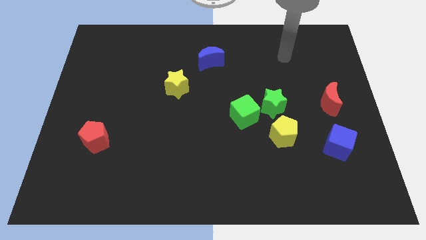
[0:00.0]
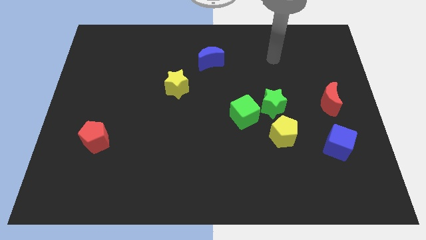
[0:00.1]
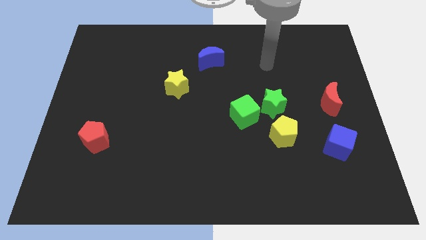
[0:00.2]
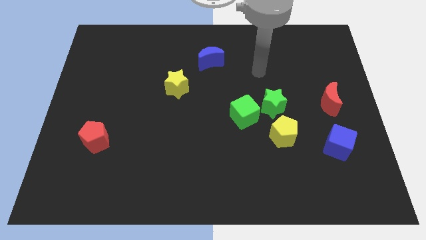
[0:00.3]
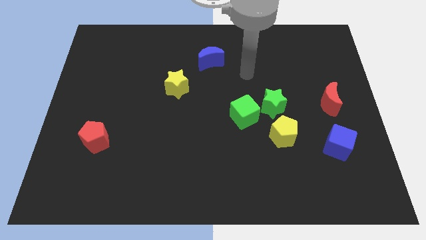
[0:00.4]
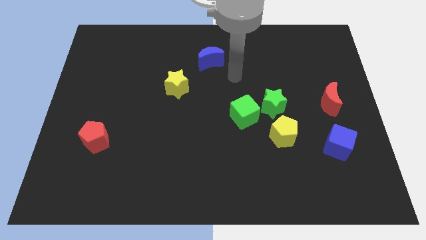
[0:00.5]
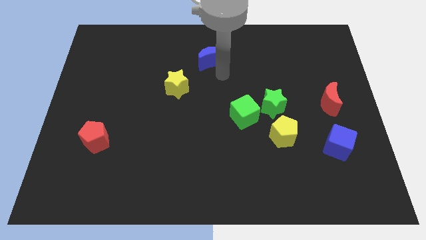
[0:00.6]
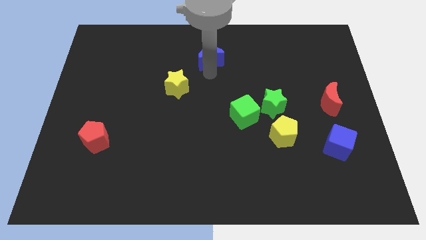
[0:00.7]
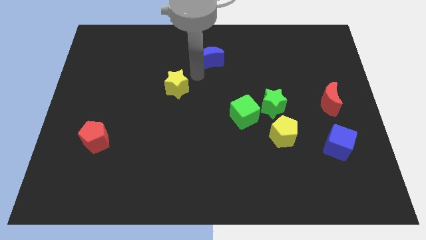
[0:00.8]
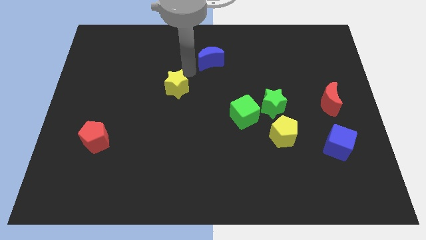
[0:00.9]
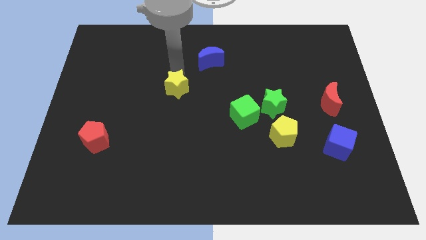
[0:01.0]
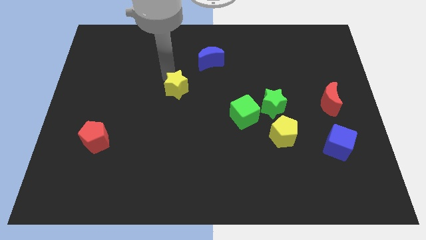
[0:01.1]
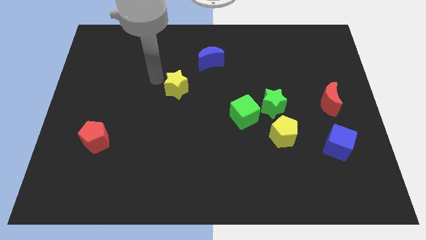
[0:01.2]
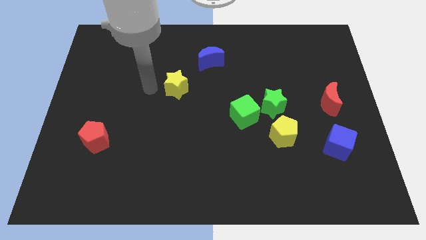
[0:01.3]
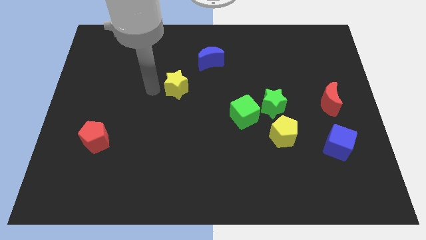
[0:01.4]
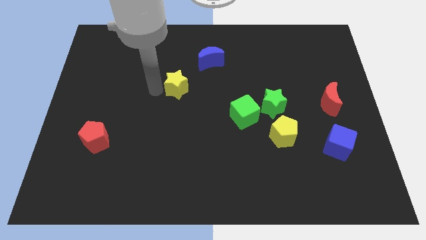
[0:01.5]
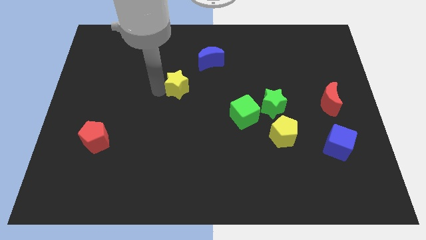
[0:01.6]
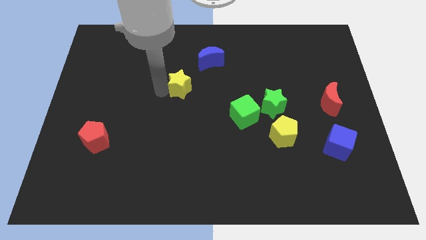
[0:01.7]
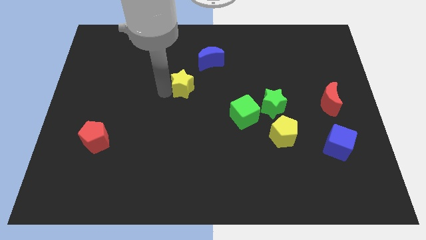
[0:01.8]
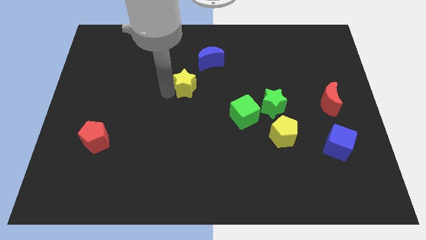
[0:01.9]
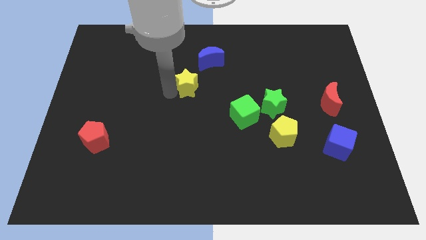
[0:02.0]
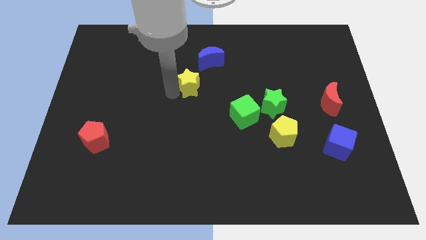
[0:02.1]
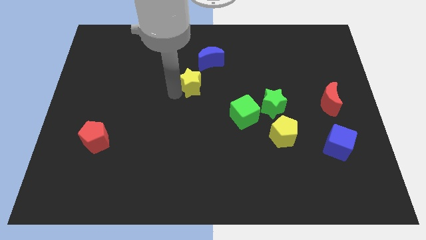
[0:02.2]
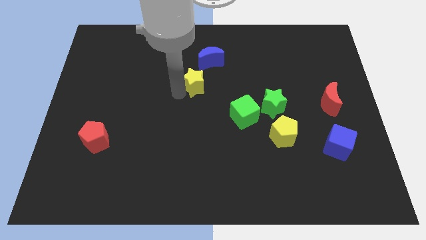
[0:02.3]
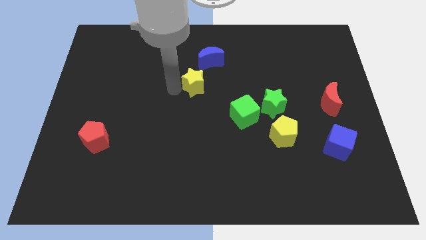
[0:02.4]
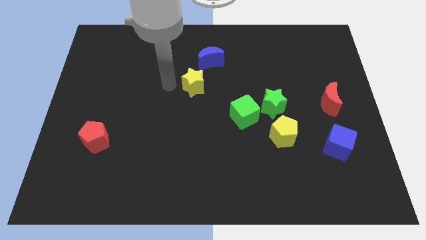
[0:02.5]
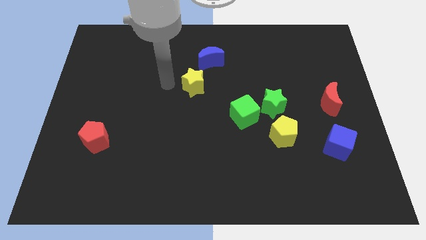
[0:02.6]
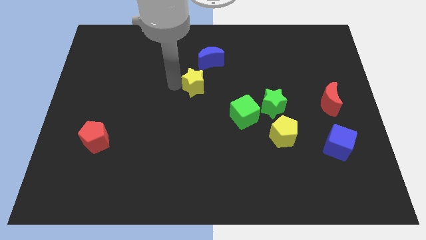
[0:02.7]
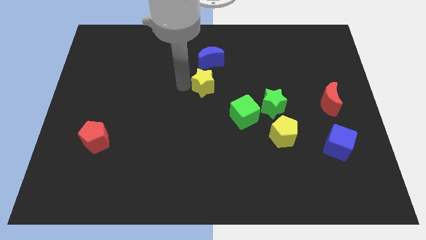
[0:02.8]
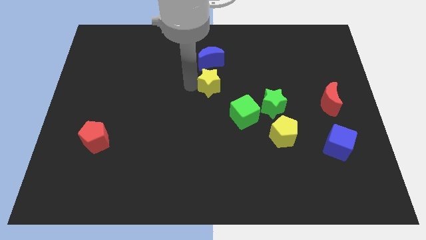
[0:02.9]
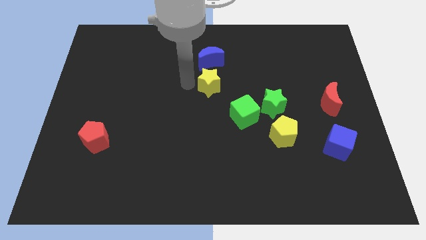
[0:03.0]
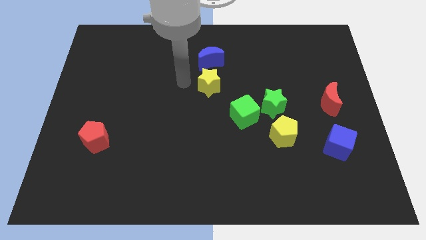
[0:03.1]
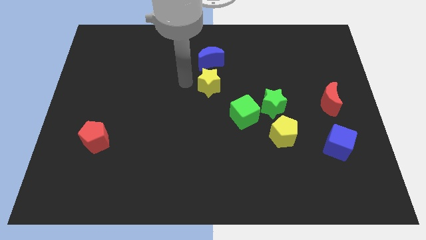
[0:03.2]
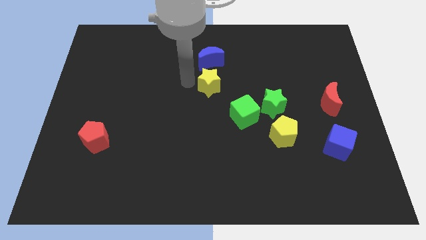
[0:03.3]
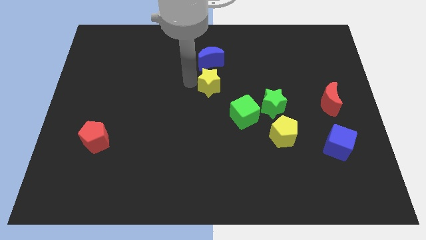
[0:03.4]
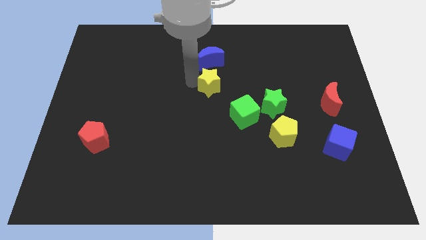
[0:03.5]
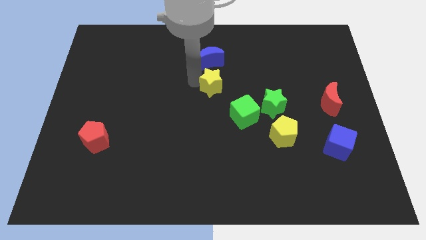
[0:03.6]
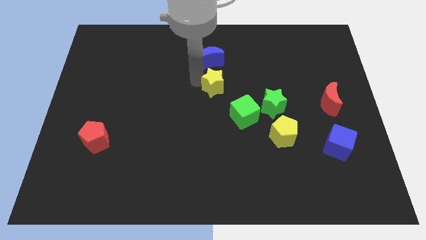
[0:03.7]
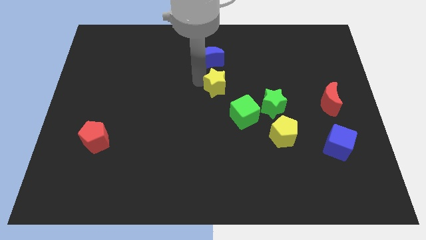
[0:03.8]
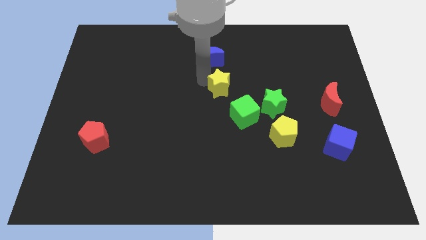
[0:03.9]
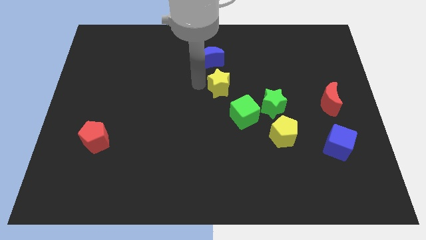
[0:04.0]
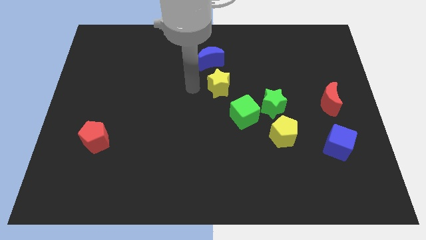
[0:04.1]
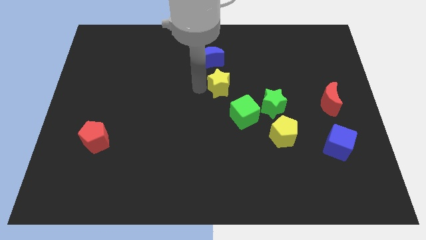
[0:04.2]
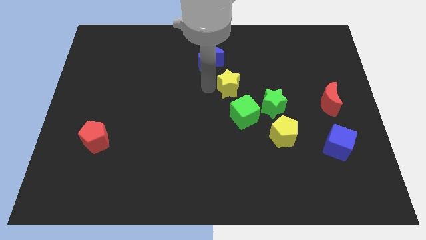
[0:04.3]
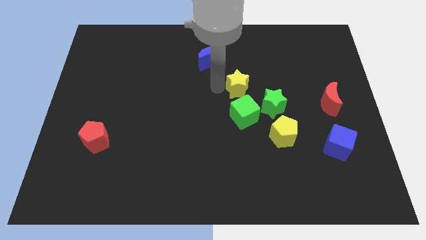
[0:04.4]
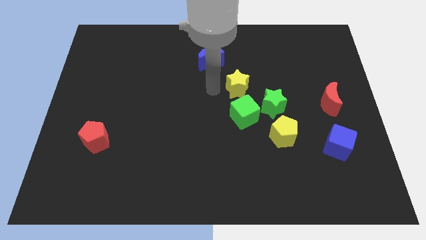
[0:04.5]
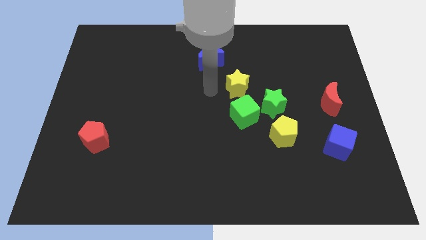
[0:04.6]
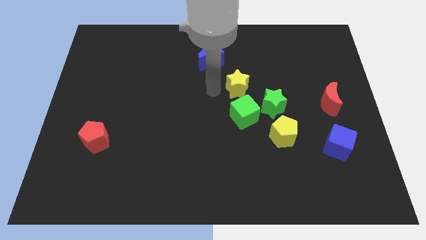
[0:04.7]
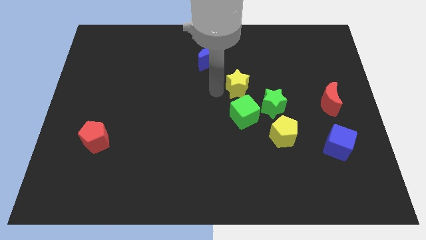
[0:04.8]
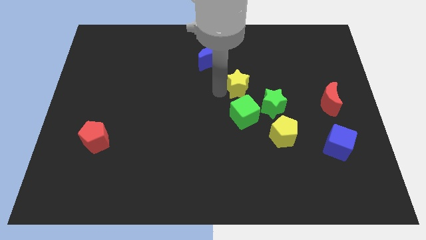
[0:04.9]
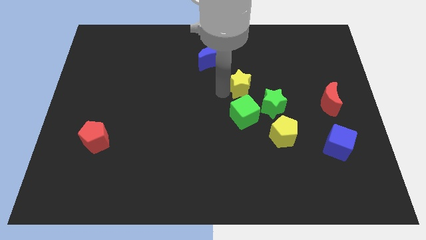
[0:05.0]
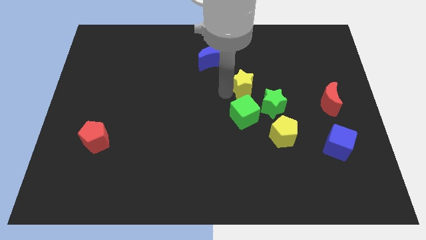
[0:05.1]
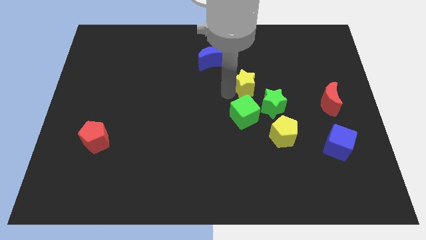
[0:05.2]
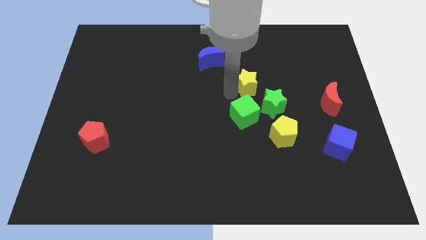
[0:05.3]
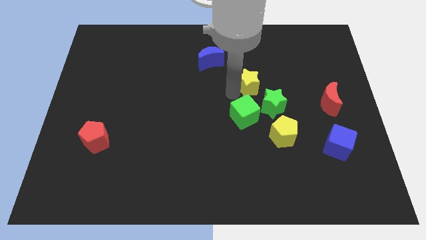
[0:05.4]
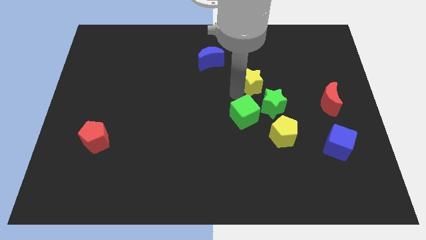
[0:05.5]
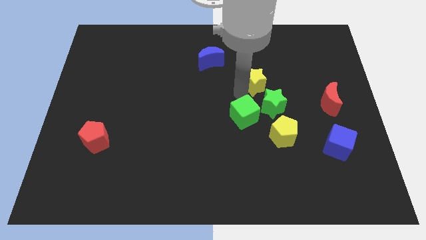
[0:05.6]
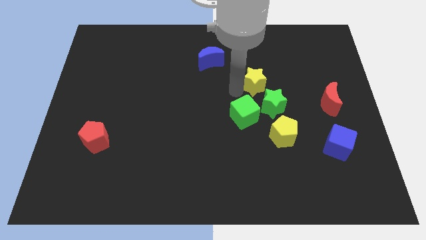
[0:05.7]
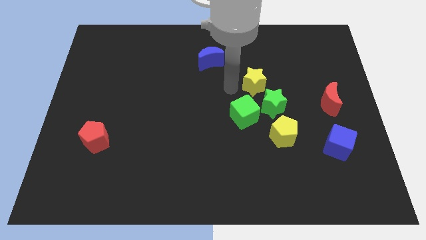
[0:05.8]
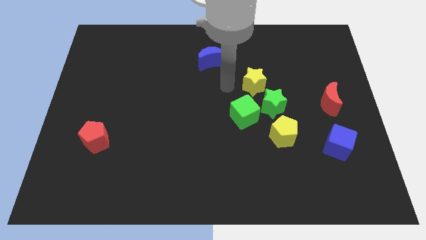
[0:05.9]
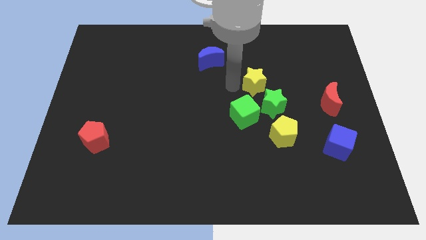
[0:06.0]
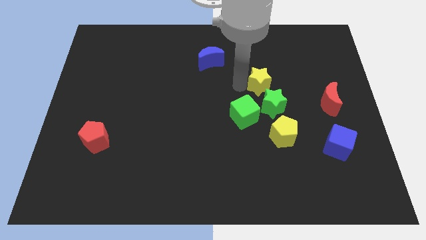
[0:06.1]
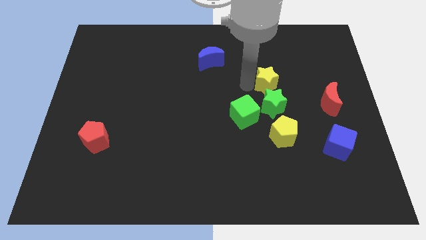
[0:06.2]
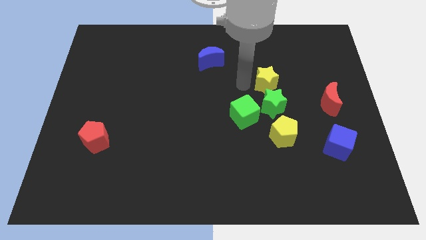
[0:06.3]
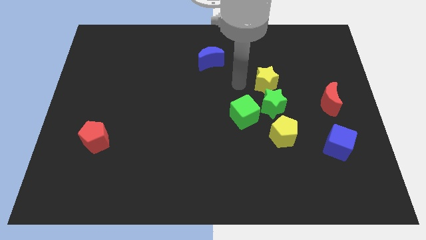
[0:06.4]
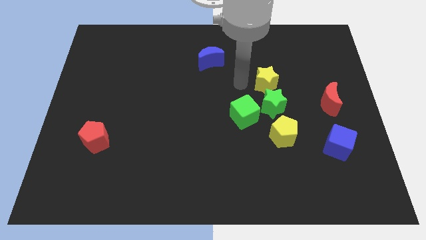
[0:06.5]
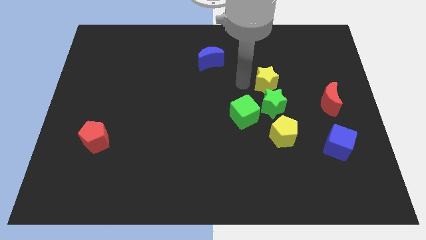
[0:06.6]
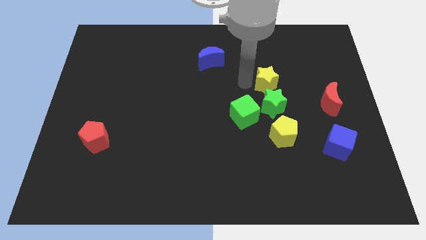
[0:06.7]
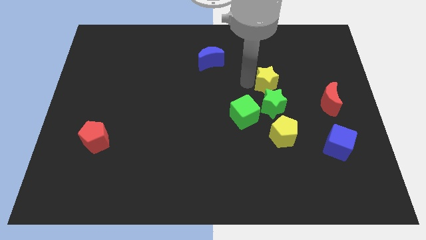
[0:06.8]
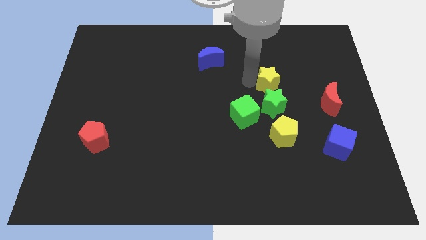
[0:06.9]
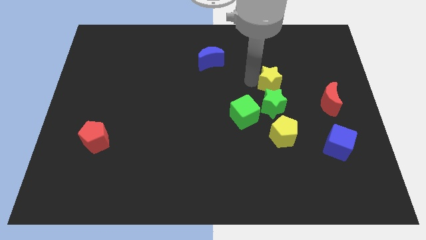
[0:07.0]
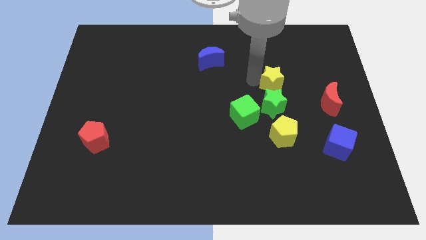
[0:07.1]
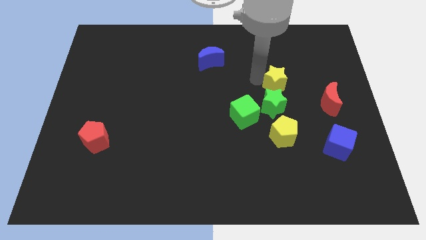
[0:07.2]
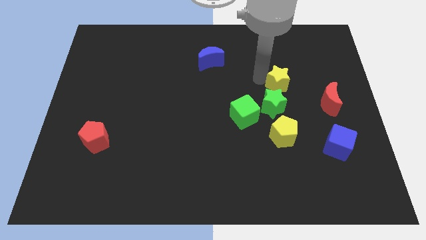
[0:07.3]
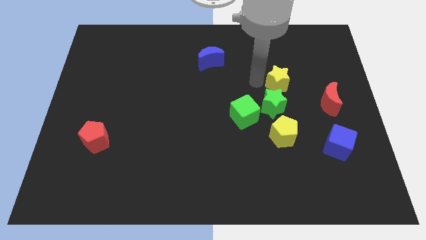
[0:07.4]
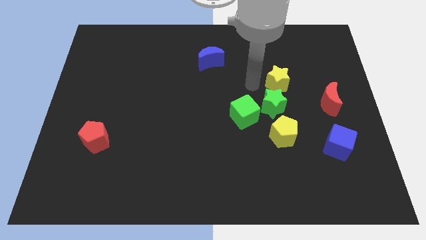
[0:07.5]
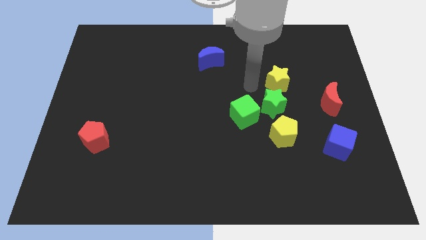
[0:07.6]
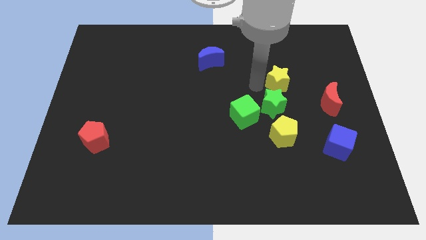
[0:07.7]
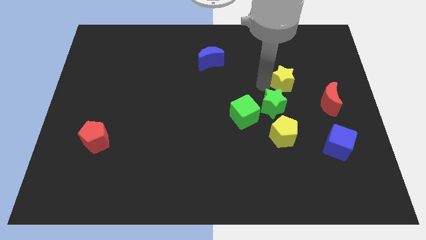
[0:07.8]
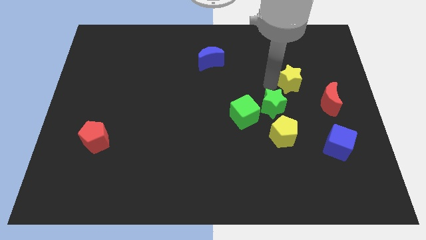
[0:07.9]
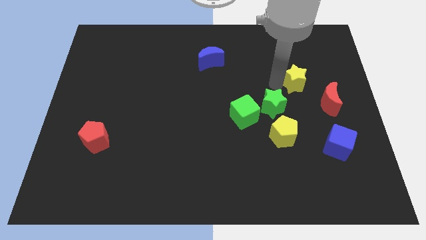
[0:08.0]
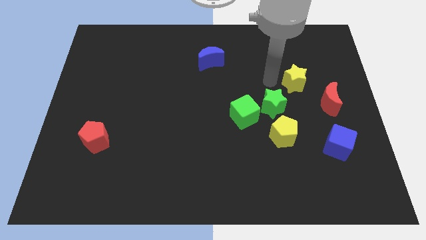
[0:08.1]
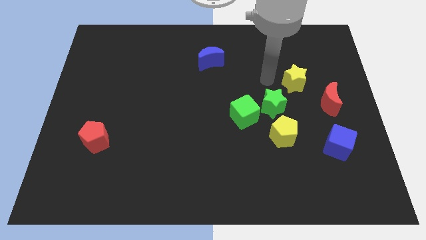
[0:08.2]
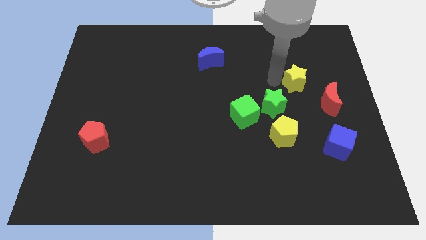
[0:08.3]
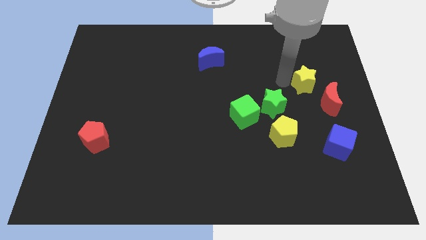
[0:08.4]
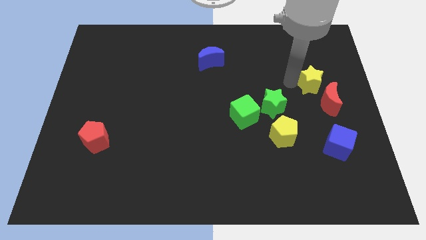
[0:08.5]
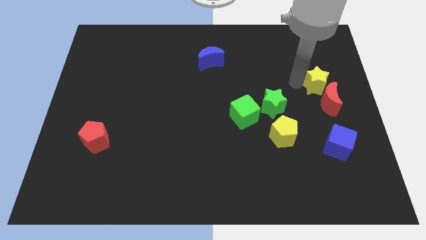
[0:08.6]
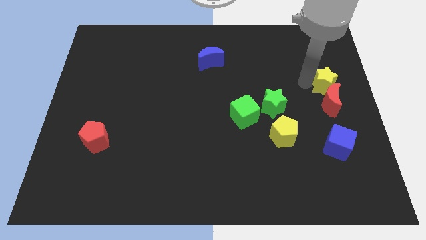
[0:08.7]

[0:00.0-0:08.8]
slide the yellow star to the center right
